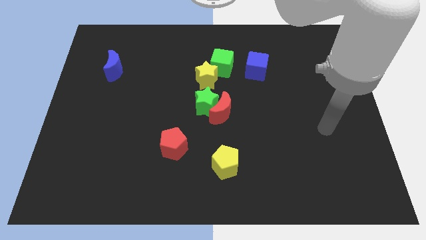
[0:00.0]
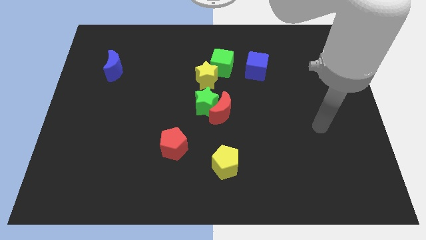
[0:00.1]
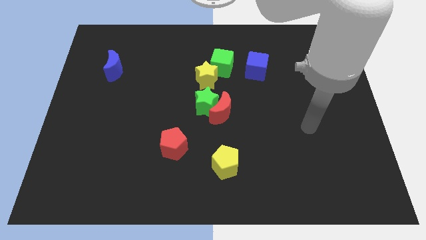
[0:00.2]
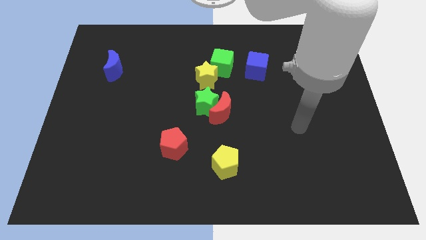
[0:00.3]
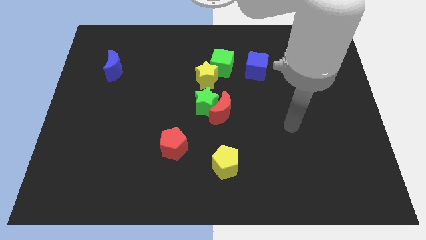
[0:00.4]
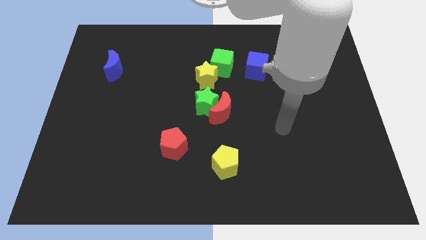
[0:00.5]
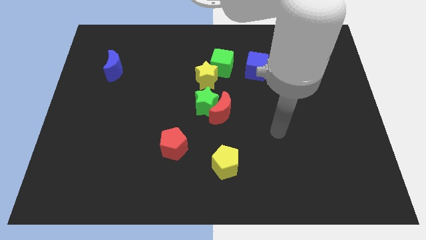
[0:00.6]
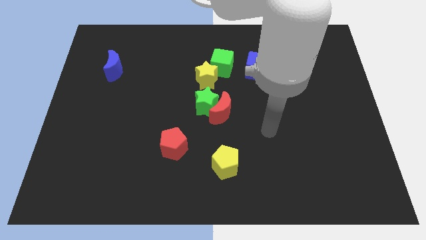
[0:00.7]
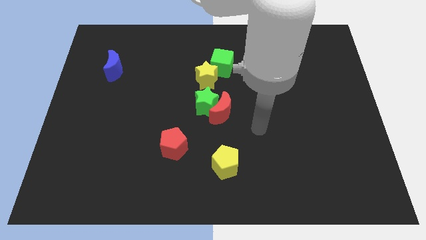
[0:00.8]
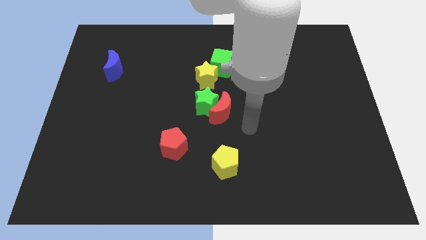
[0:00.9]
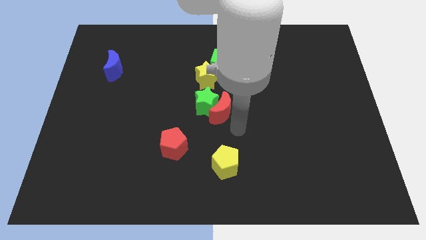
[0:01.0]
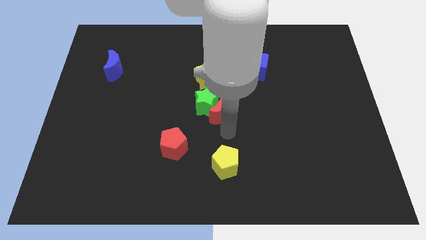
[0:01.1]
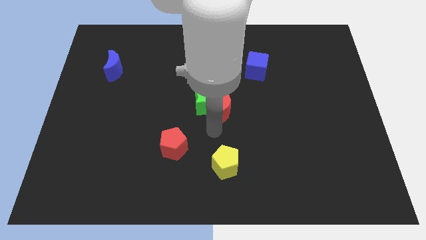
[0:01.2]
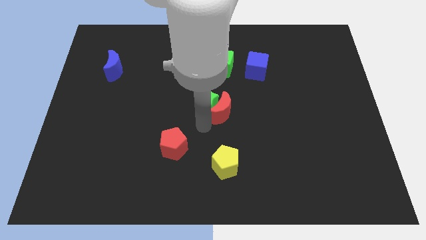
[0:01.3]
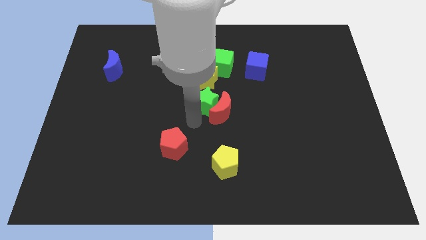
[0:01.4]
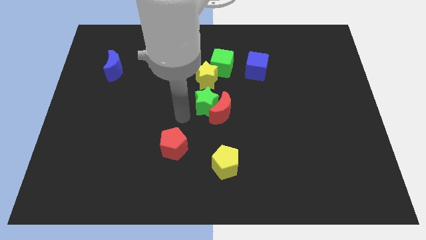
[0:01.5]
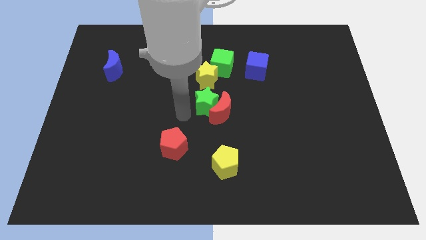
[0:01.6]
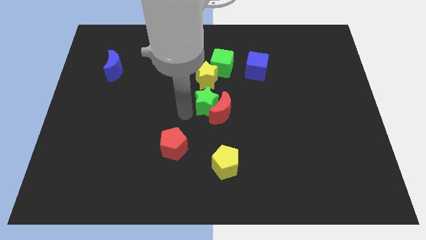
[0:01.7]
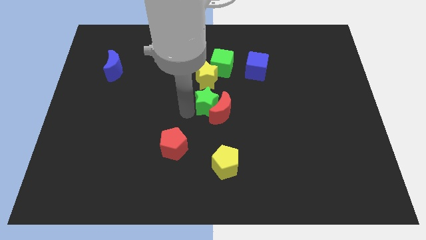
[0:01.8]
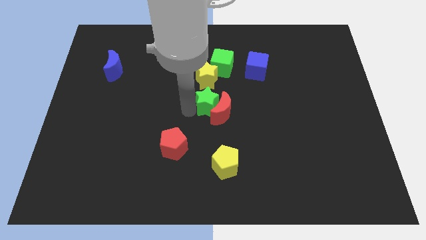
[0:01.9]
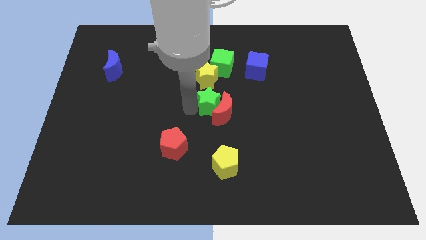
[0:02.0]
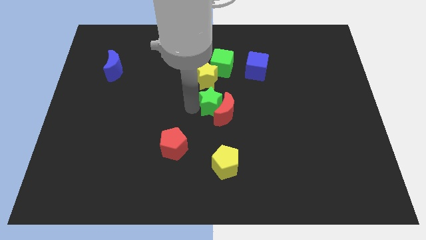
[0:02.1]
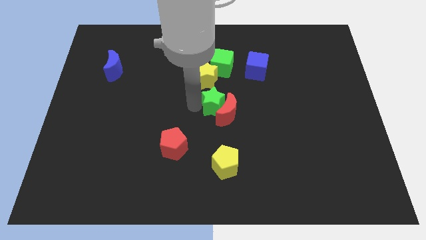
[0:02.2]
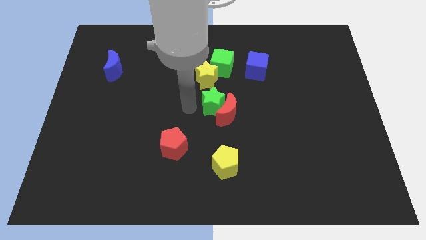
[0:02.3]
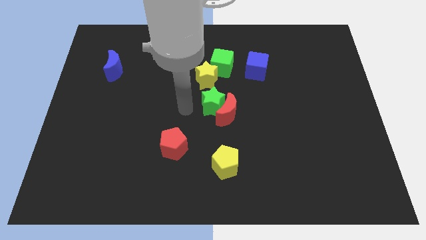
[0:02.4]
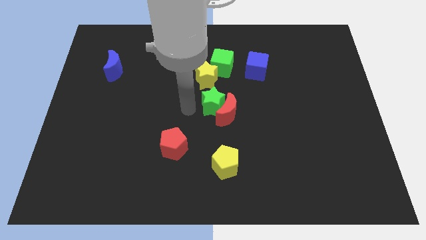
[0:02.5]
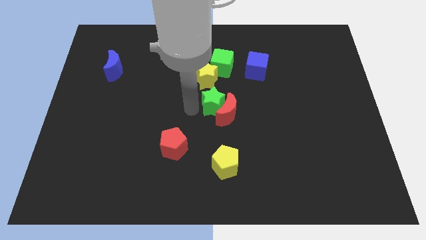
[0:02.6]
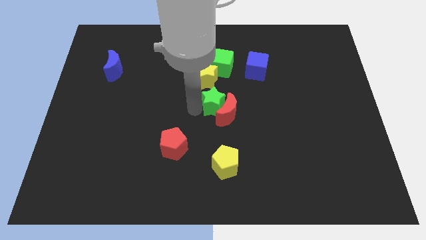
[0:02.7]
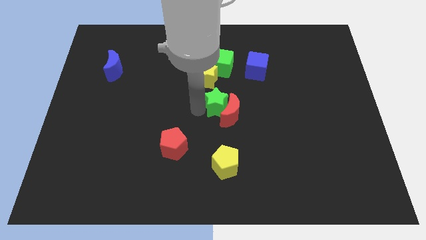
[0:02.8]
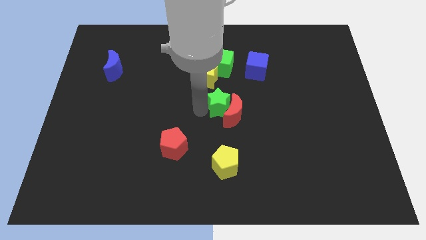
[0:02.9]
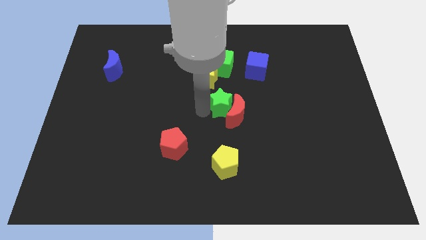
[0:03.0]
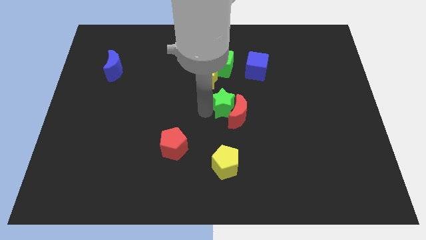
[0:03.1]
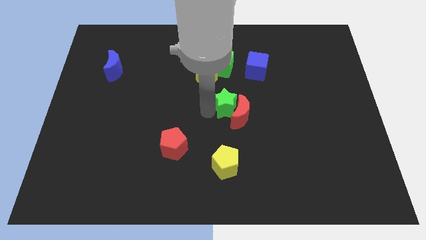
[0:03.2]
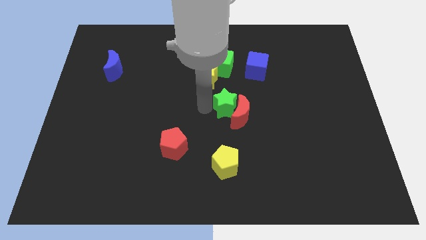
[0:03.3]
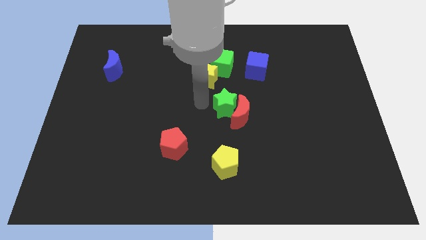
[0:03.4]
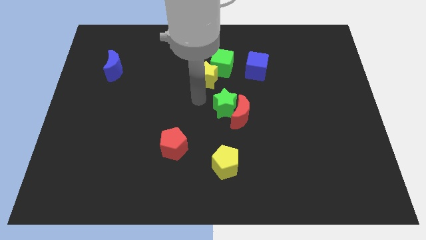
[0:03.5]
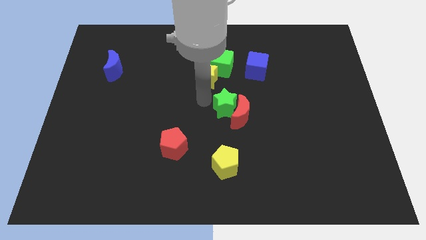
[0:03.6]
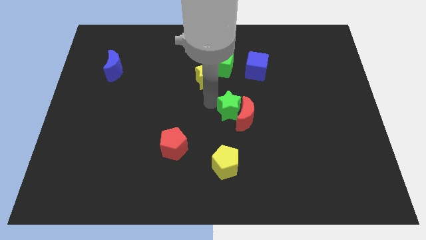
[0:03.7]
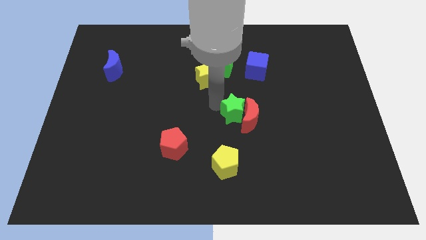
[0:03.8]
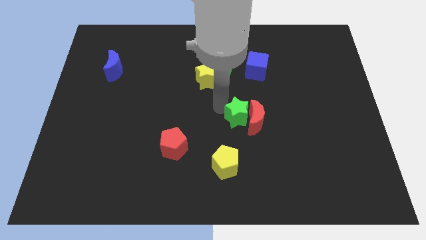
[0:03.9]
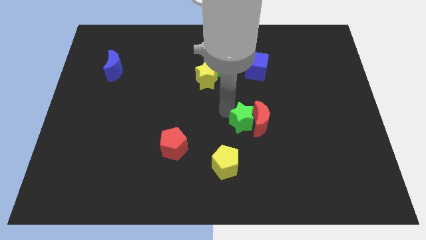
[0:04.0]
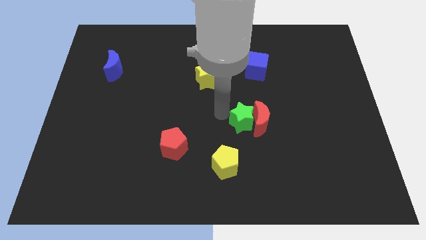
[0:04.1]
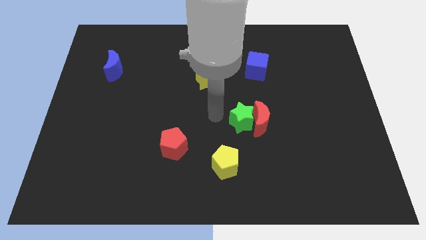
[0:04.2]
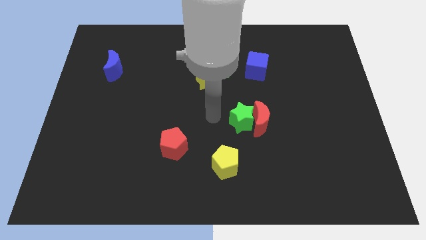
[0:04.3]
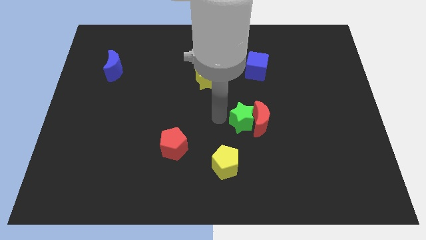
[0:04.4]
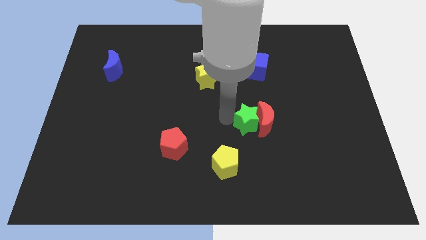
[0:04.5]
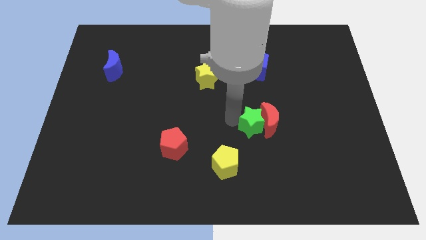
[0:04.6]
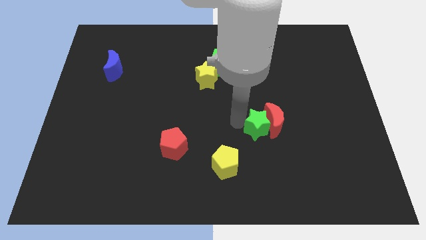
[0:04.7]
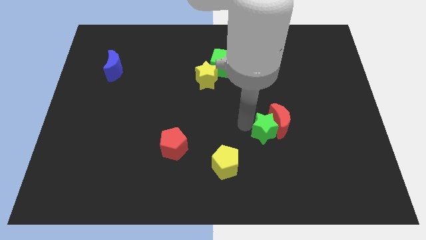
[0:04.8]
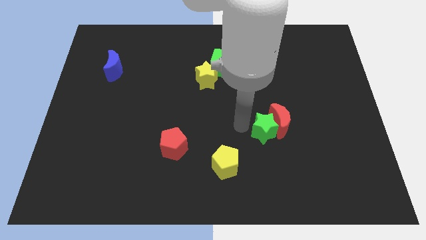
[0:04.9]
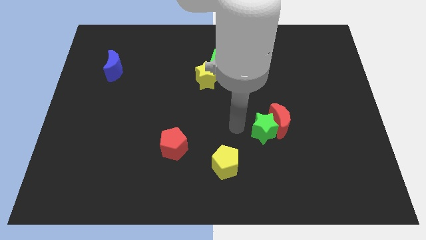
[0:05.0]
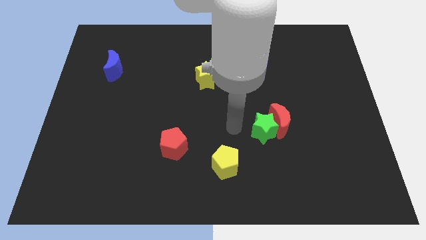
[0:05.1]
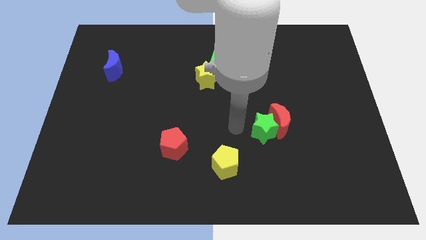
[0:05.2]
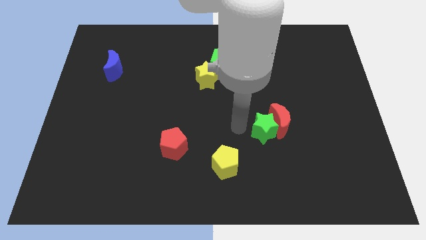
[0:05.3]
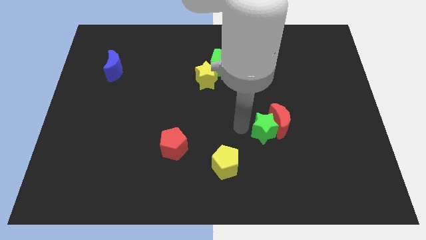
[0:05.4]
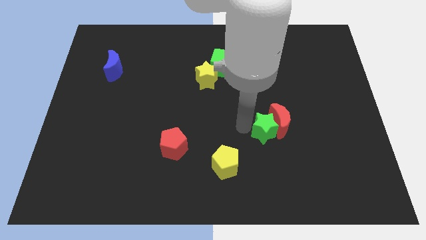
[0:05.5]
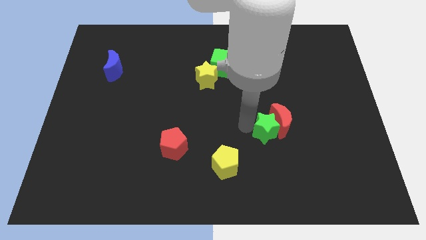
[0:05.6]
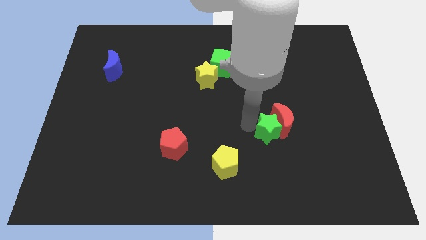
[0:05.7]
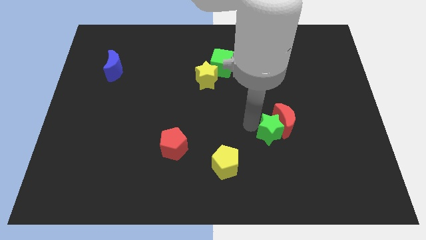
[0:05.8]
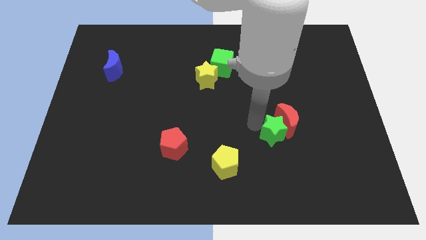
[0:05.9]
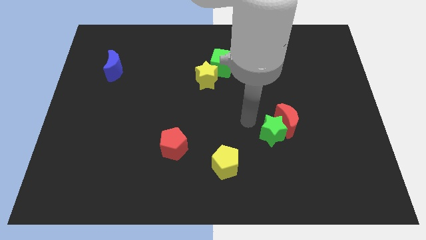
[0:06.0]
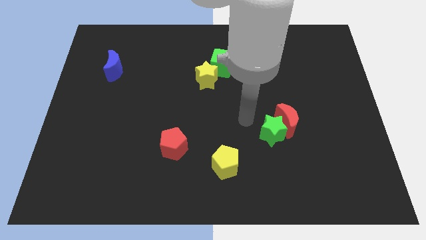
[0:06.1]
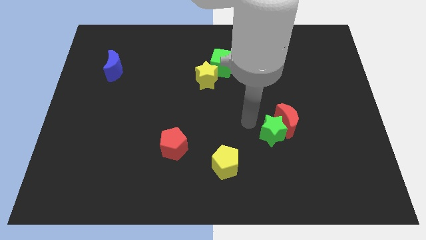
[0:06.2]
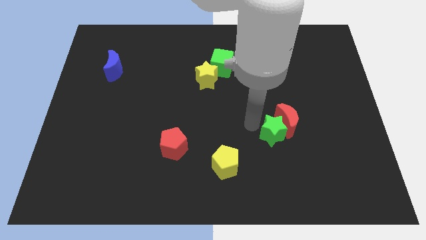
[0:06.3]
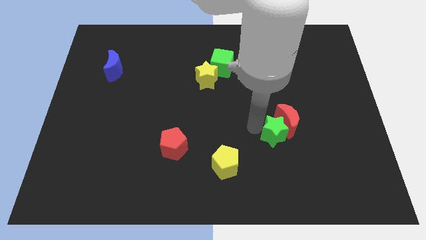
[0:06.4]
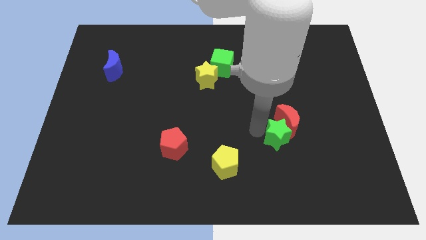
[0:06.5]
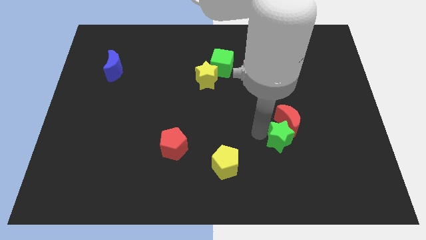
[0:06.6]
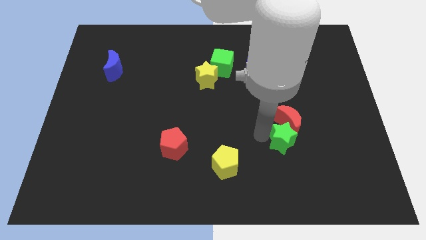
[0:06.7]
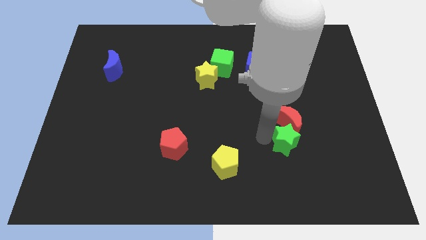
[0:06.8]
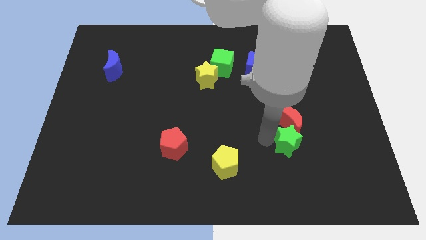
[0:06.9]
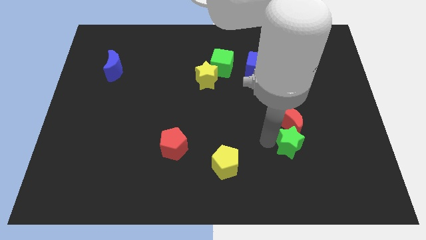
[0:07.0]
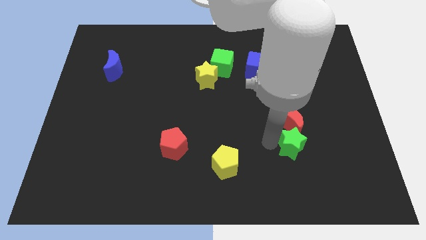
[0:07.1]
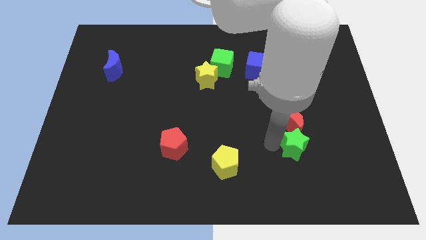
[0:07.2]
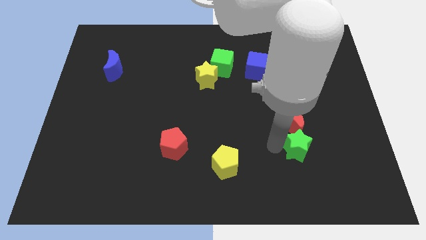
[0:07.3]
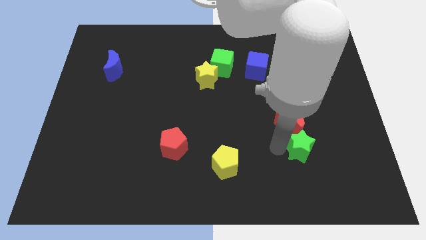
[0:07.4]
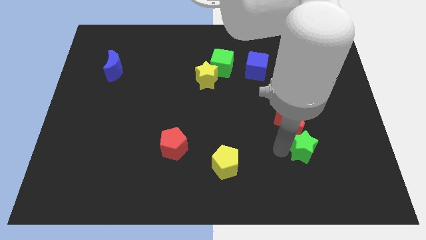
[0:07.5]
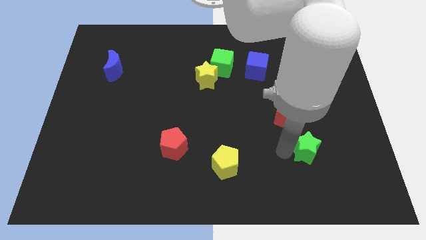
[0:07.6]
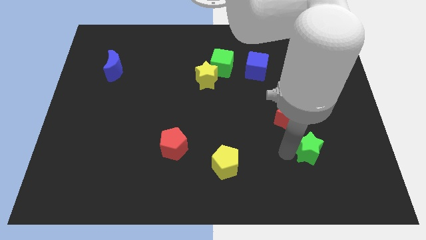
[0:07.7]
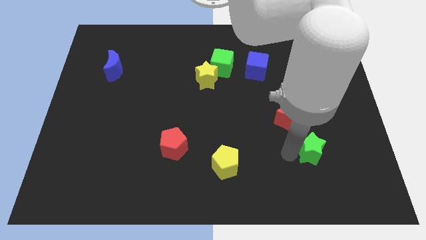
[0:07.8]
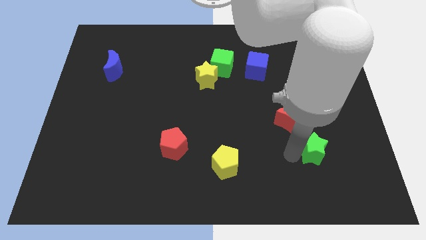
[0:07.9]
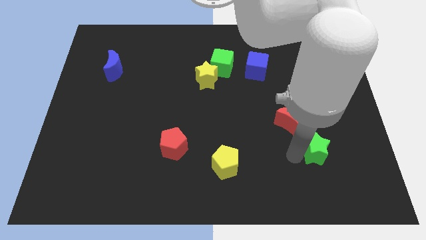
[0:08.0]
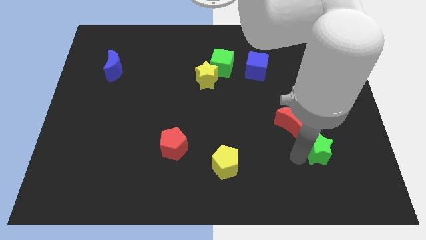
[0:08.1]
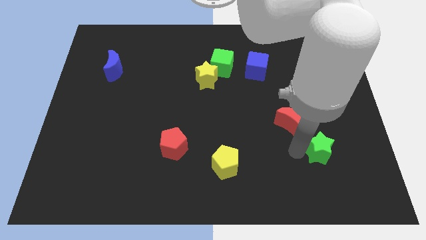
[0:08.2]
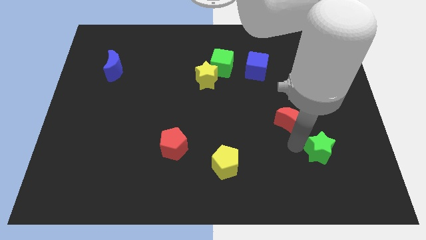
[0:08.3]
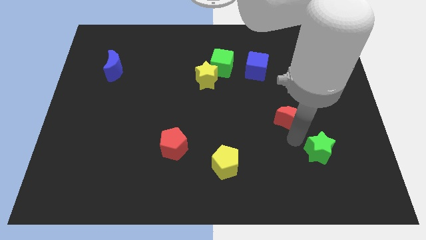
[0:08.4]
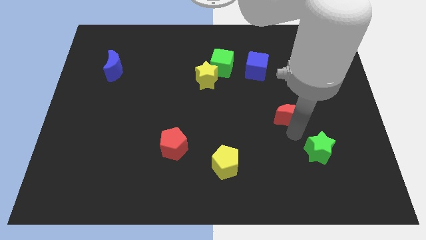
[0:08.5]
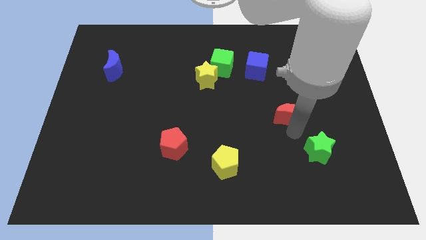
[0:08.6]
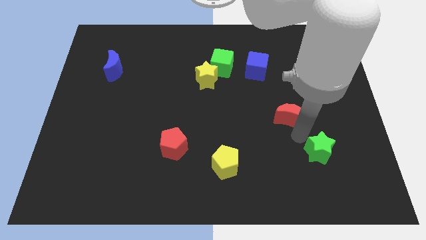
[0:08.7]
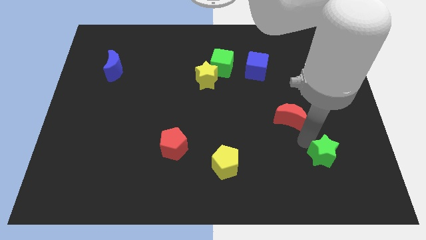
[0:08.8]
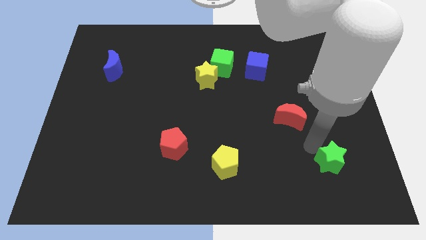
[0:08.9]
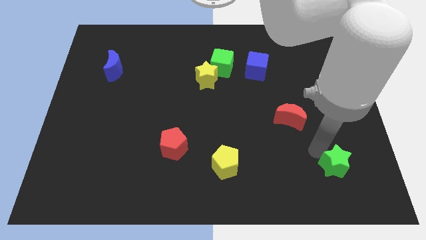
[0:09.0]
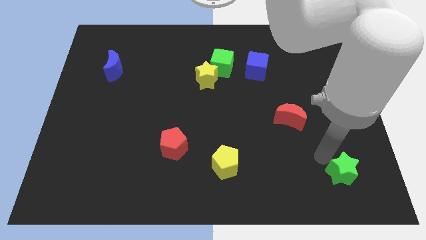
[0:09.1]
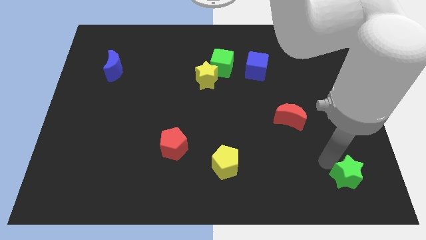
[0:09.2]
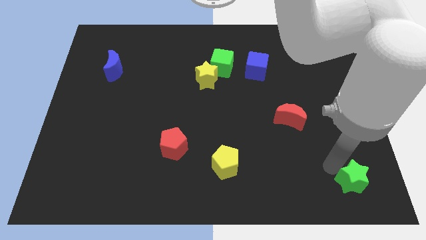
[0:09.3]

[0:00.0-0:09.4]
move the green star to the bottom right of the board
